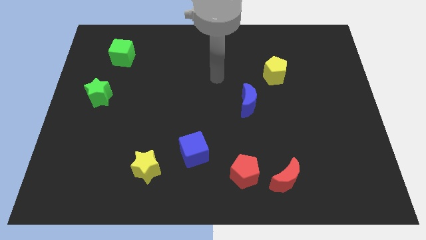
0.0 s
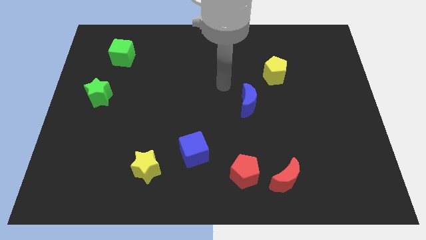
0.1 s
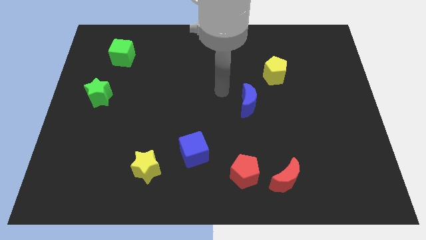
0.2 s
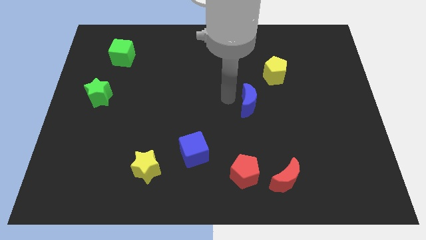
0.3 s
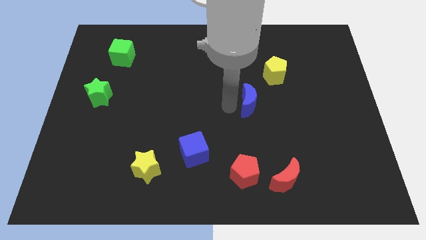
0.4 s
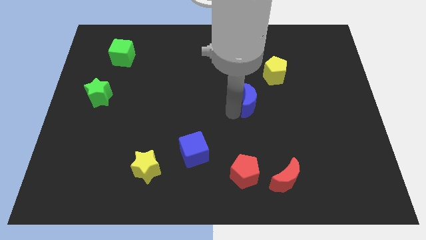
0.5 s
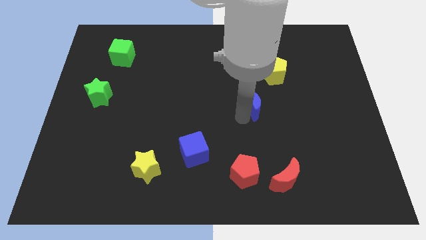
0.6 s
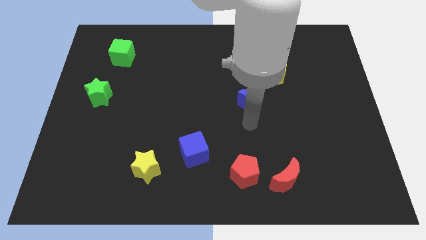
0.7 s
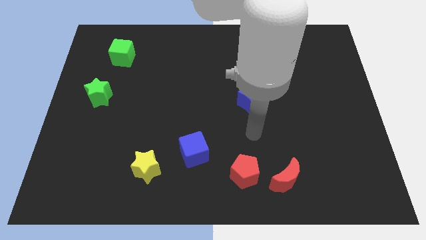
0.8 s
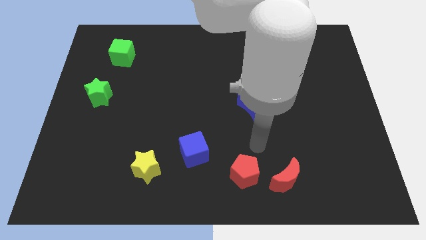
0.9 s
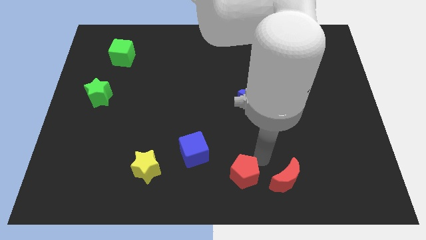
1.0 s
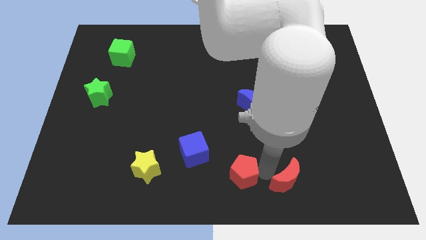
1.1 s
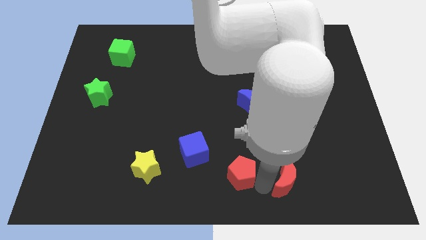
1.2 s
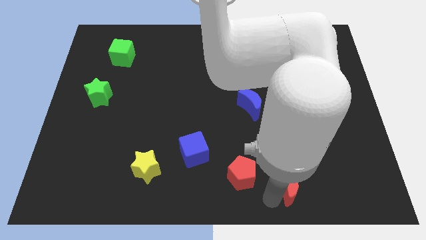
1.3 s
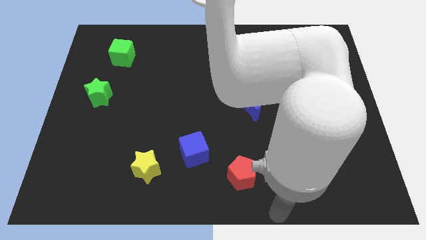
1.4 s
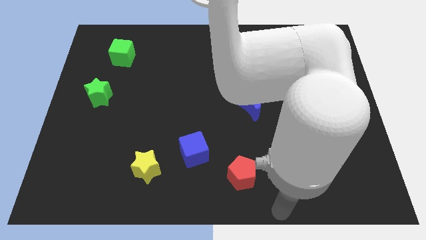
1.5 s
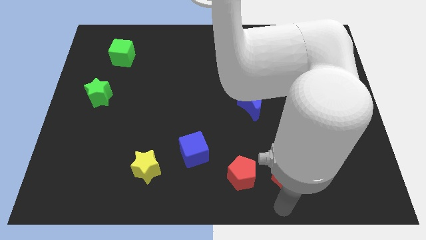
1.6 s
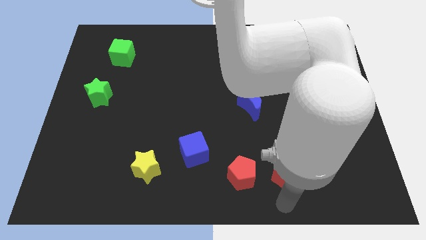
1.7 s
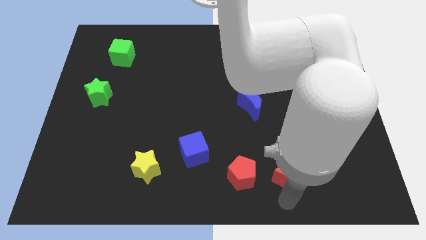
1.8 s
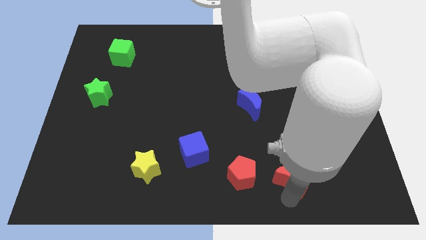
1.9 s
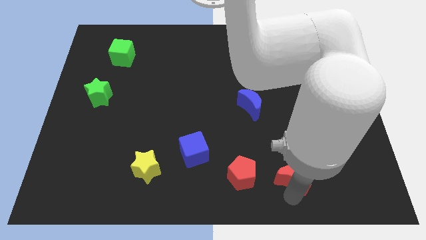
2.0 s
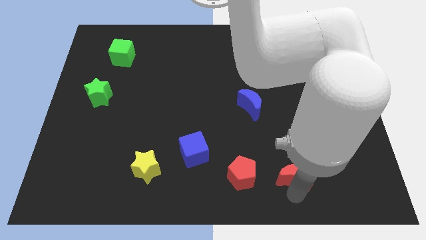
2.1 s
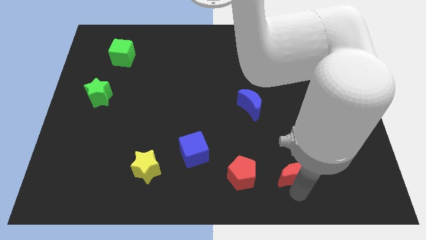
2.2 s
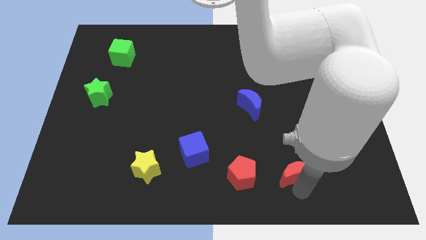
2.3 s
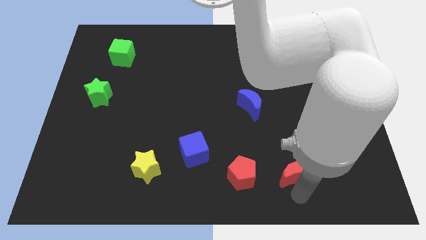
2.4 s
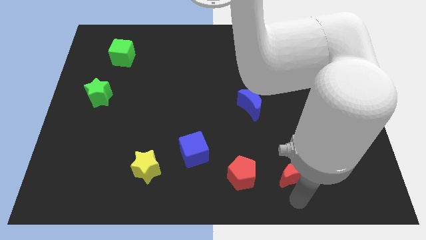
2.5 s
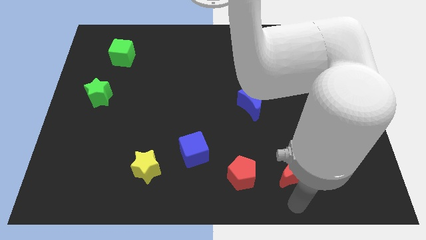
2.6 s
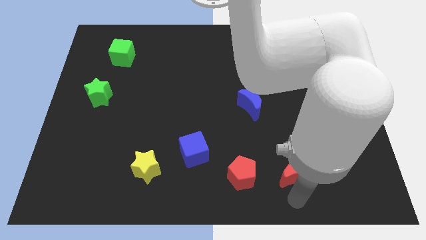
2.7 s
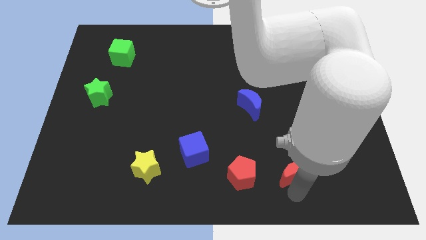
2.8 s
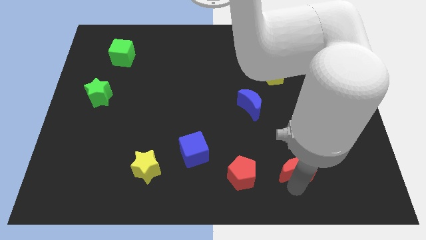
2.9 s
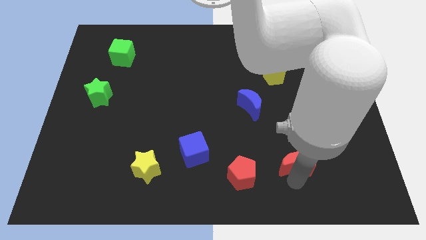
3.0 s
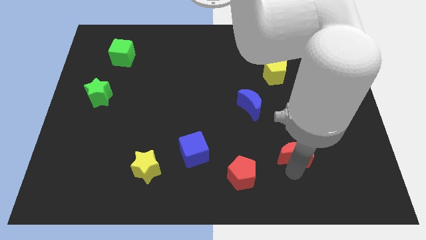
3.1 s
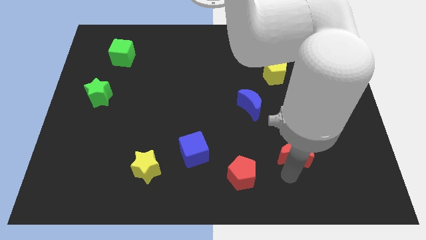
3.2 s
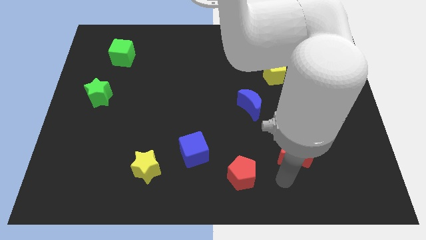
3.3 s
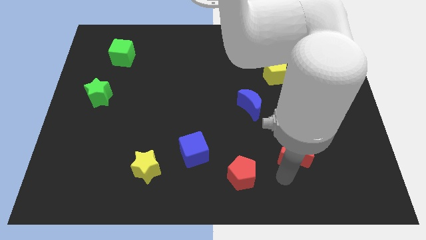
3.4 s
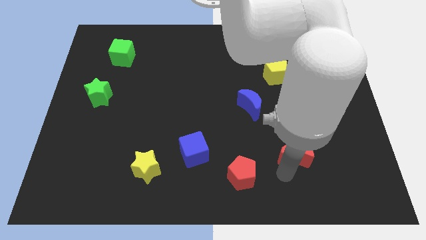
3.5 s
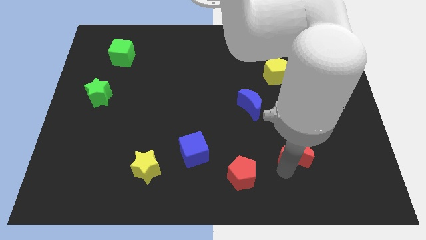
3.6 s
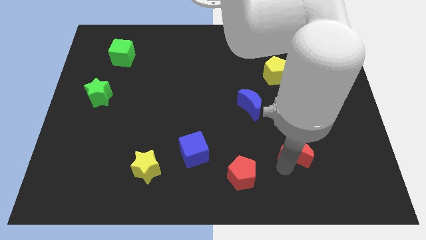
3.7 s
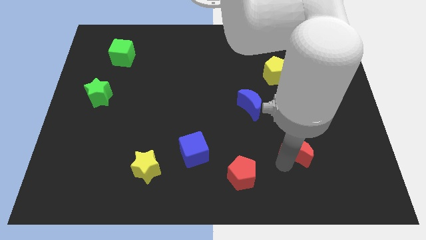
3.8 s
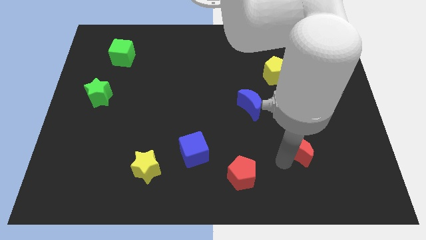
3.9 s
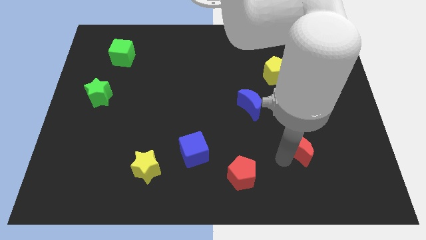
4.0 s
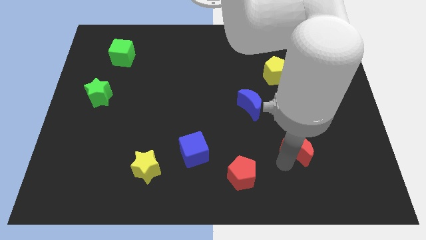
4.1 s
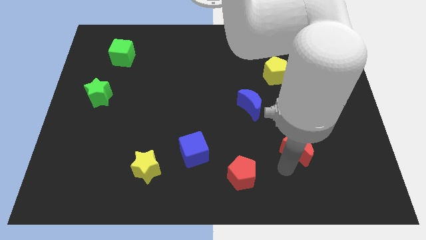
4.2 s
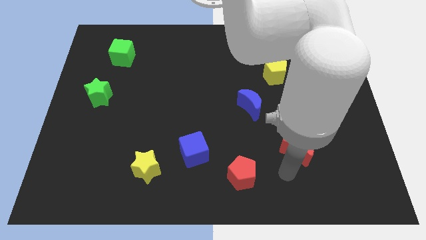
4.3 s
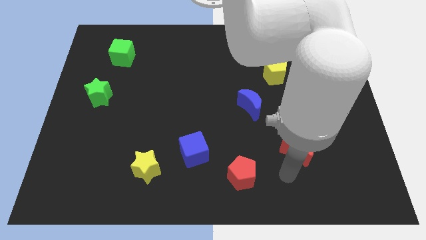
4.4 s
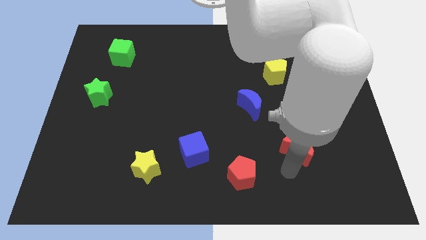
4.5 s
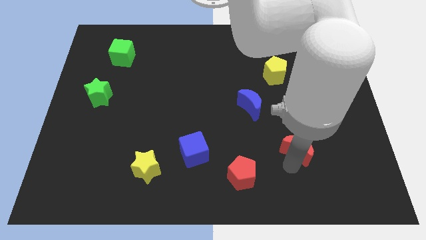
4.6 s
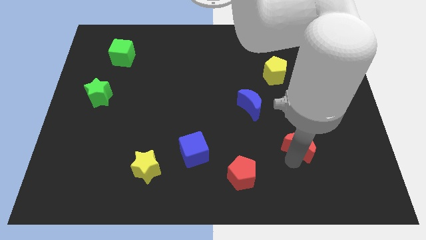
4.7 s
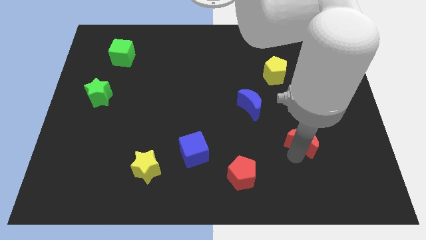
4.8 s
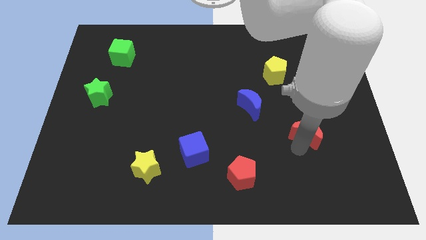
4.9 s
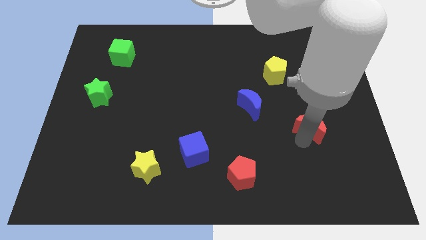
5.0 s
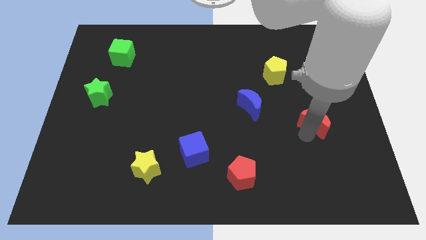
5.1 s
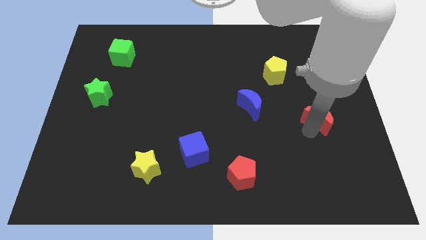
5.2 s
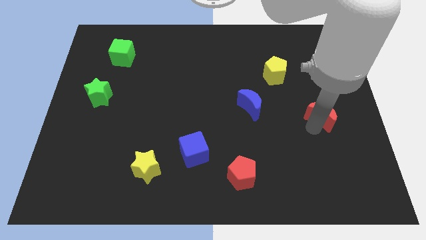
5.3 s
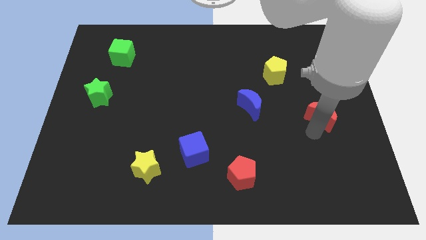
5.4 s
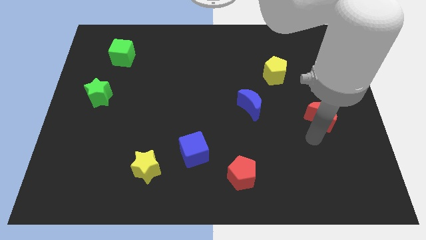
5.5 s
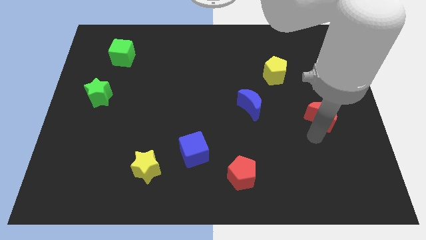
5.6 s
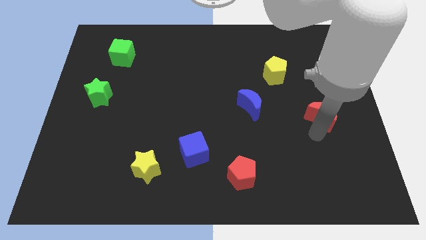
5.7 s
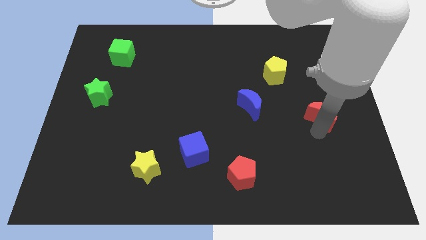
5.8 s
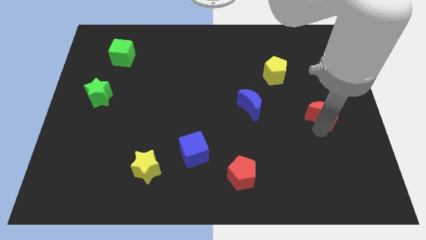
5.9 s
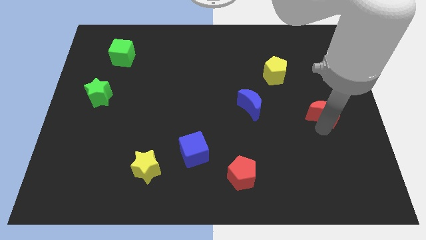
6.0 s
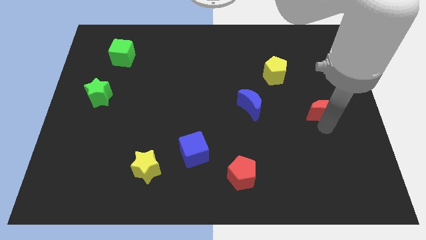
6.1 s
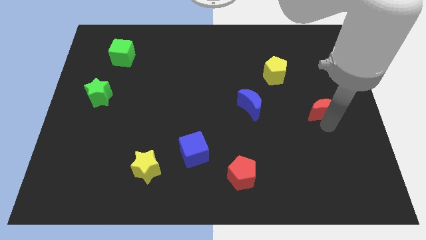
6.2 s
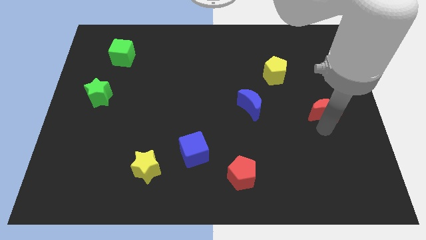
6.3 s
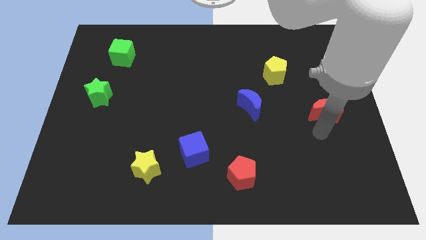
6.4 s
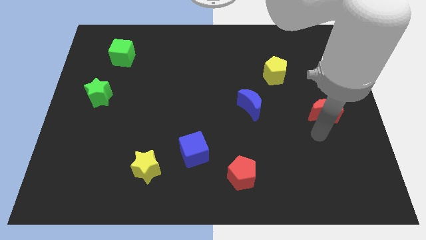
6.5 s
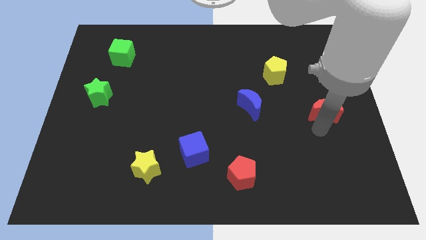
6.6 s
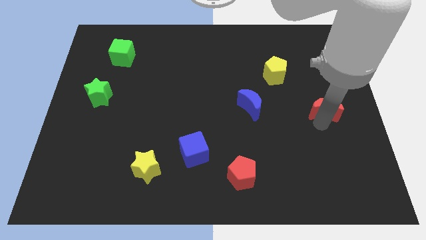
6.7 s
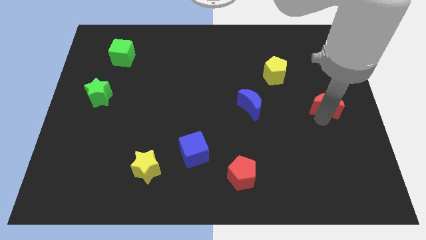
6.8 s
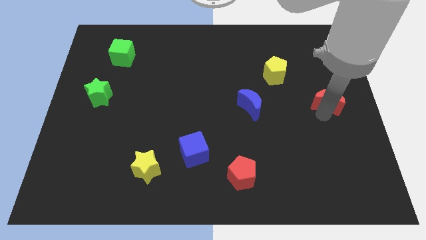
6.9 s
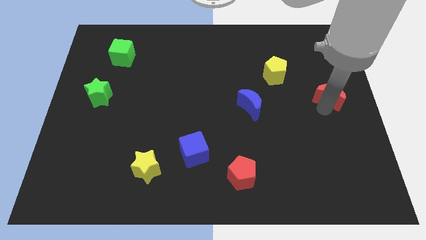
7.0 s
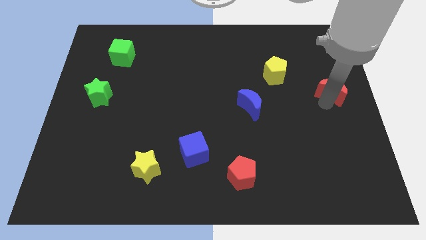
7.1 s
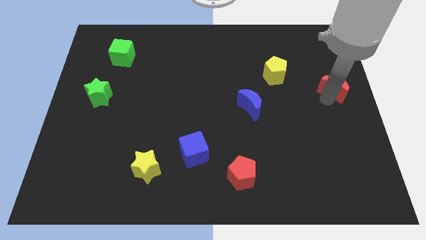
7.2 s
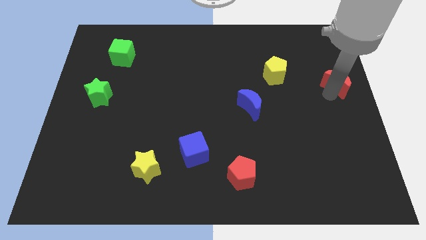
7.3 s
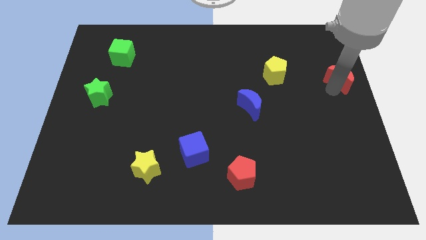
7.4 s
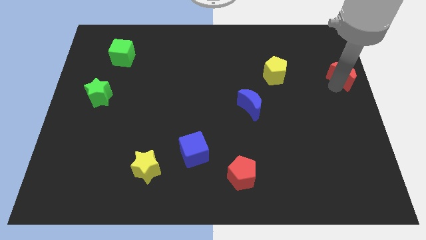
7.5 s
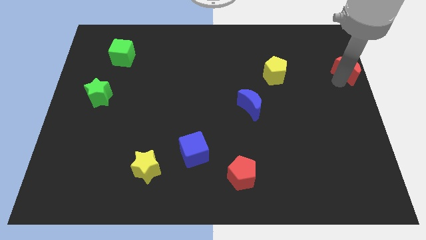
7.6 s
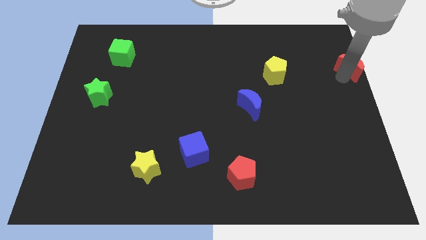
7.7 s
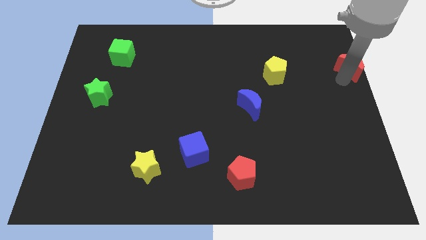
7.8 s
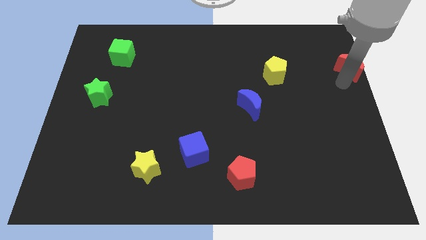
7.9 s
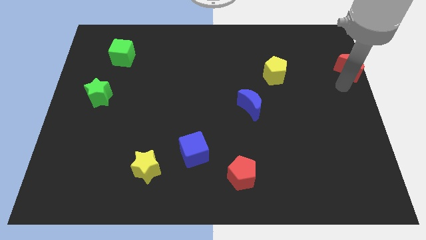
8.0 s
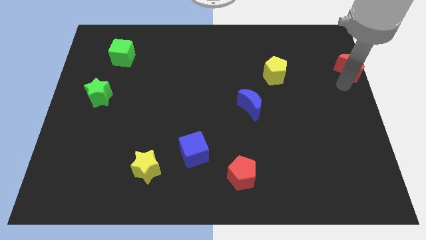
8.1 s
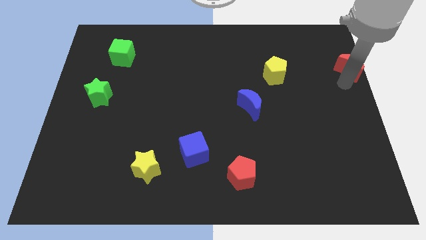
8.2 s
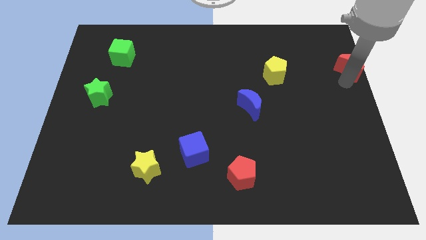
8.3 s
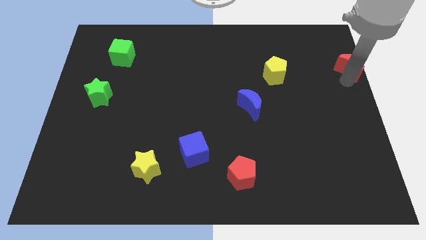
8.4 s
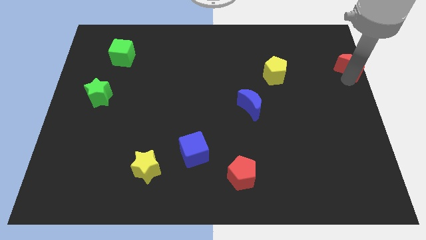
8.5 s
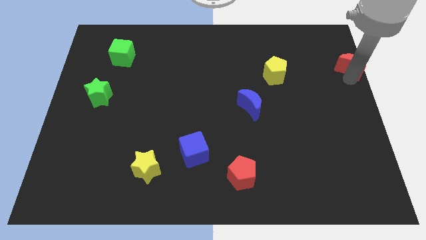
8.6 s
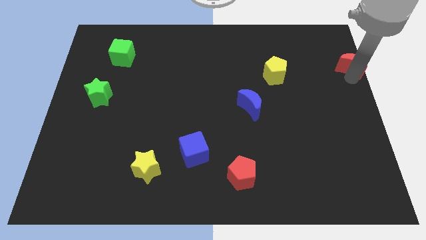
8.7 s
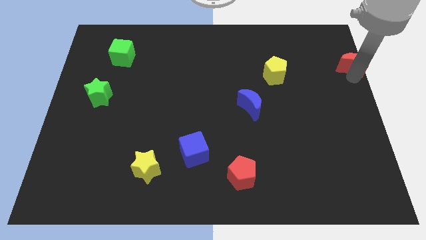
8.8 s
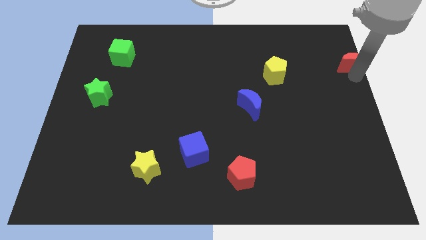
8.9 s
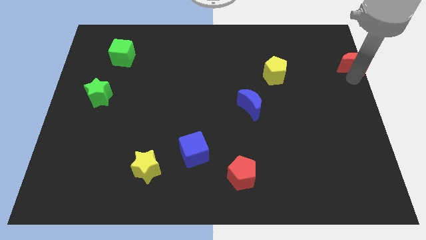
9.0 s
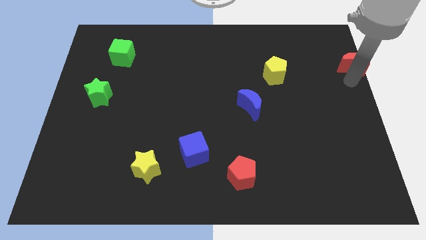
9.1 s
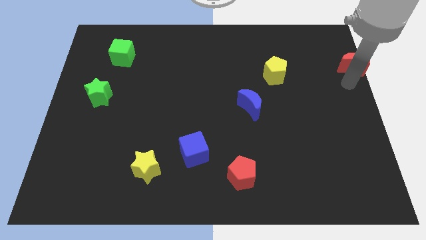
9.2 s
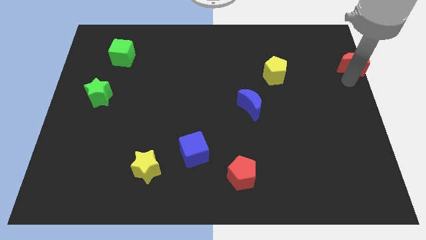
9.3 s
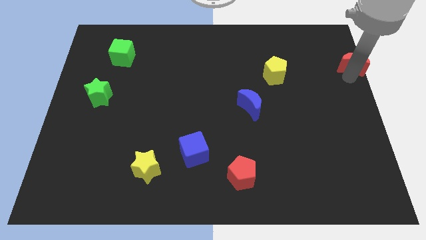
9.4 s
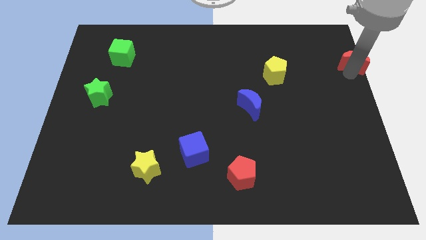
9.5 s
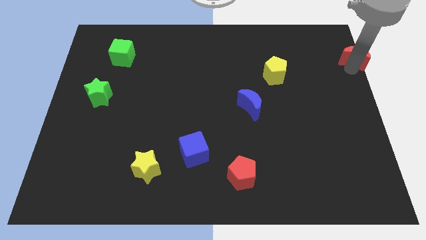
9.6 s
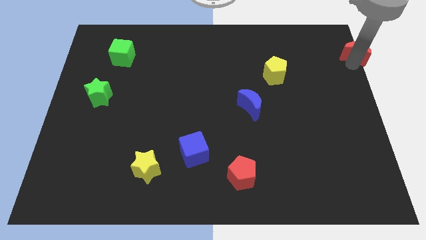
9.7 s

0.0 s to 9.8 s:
push the red moon to the top right corner
